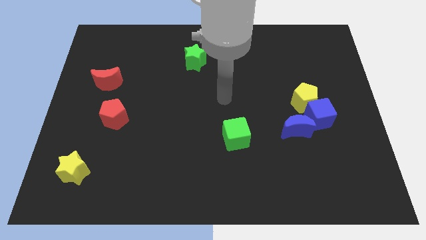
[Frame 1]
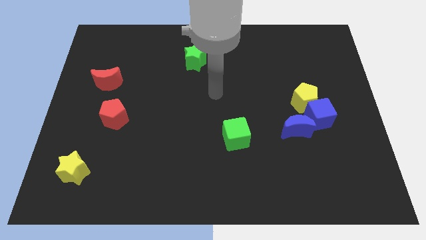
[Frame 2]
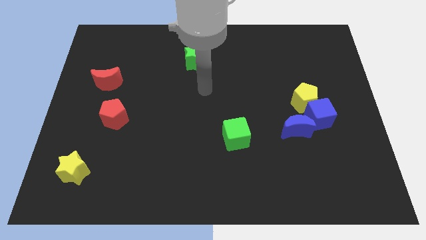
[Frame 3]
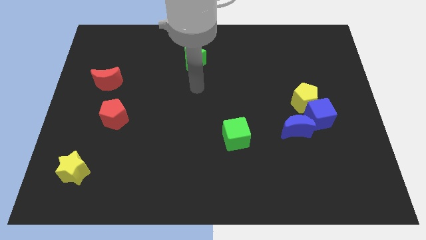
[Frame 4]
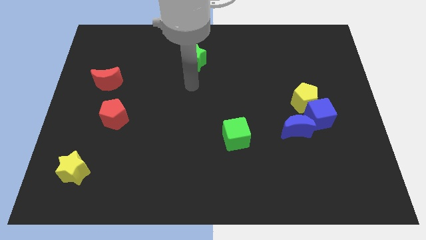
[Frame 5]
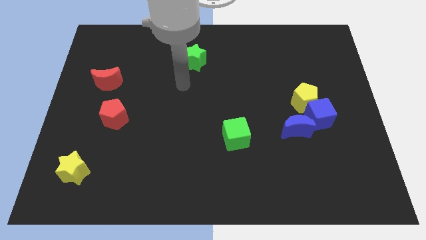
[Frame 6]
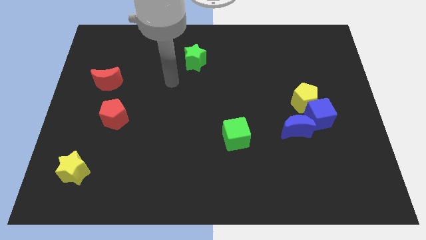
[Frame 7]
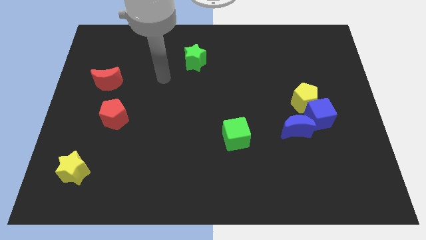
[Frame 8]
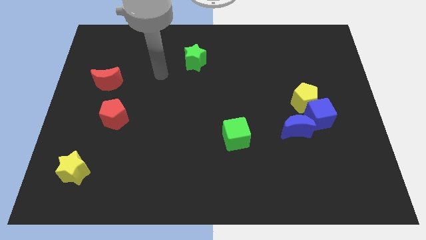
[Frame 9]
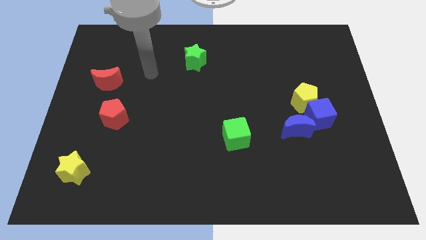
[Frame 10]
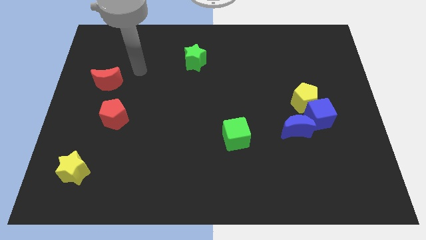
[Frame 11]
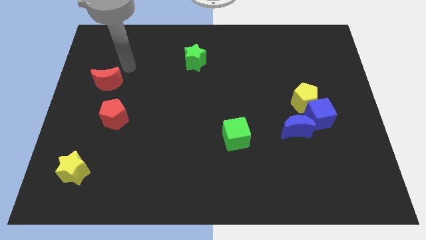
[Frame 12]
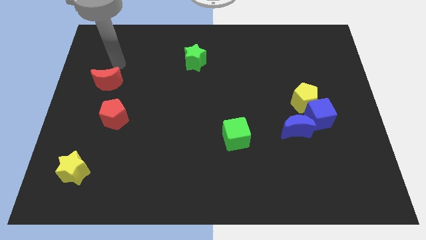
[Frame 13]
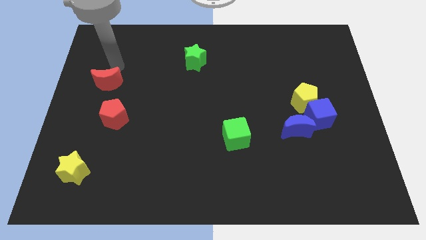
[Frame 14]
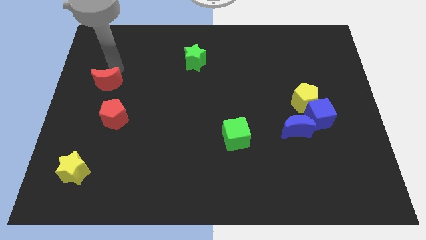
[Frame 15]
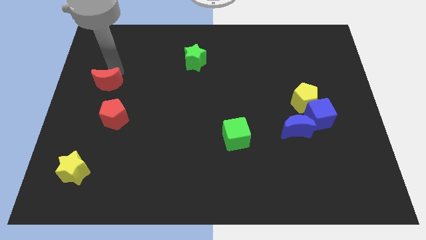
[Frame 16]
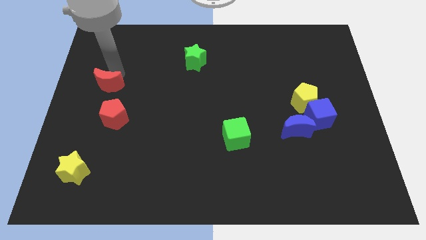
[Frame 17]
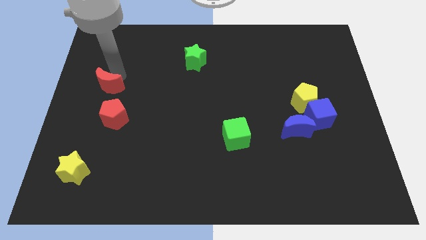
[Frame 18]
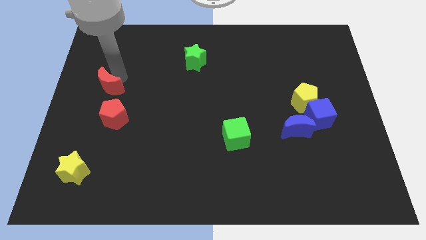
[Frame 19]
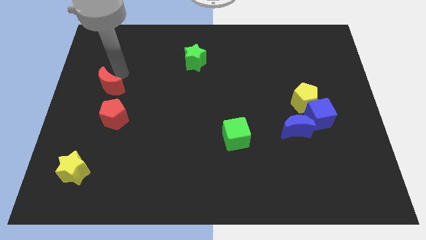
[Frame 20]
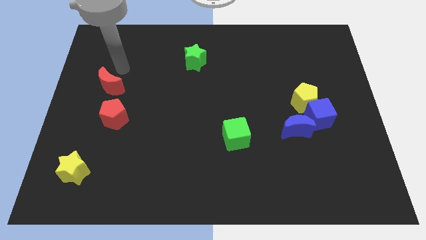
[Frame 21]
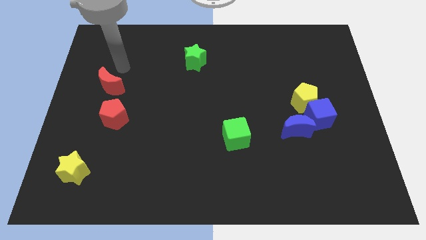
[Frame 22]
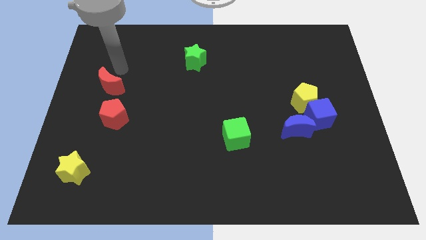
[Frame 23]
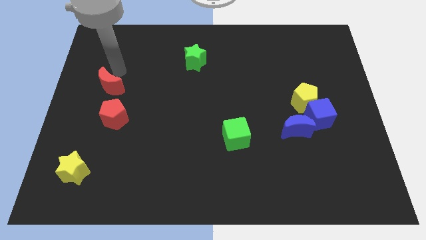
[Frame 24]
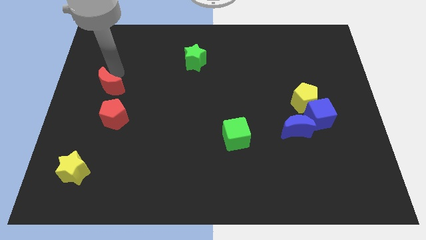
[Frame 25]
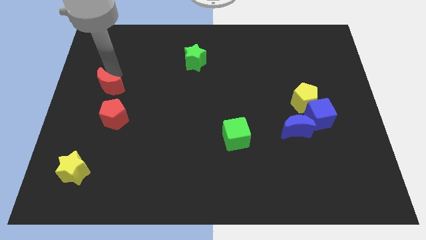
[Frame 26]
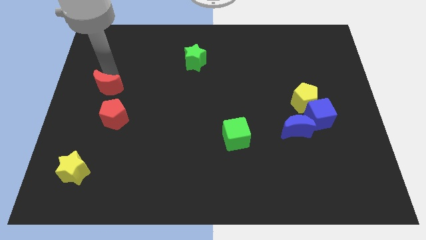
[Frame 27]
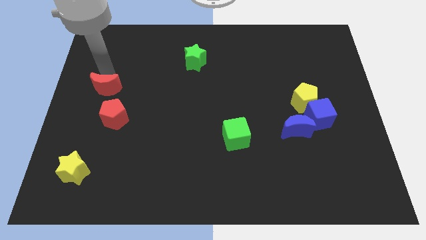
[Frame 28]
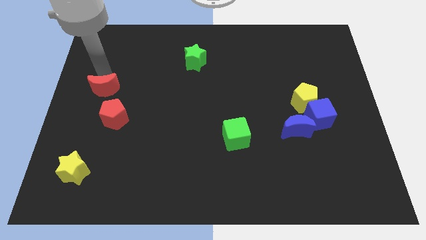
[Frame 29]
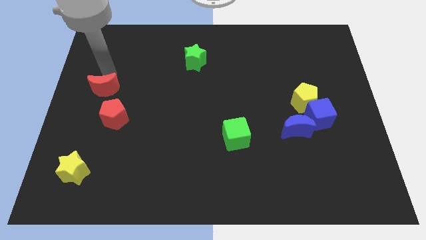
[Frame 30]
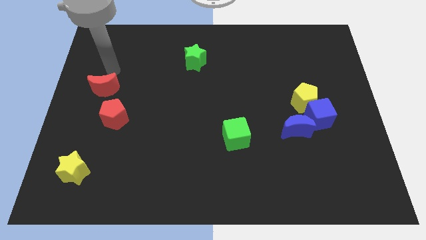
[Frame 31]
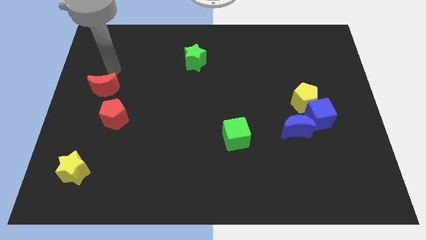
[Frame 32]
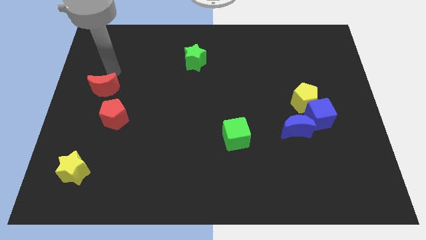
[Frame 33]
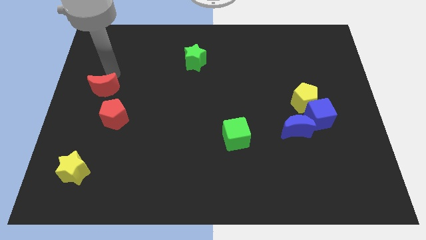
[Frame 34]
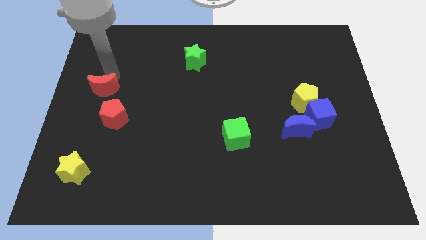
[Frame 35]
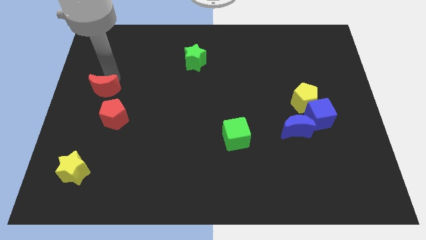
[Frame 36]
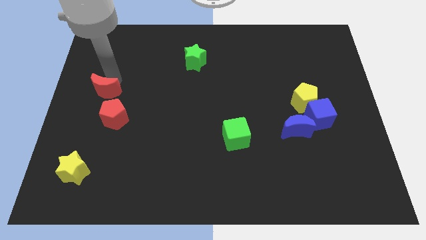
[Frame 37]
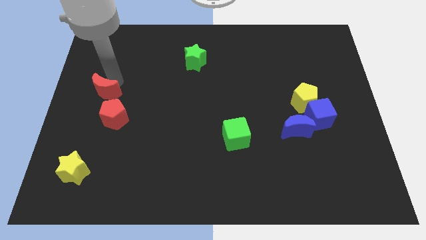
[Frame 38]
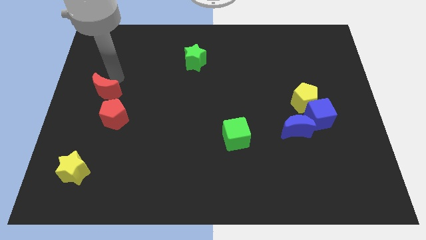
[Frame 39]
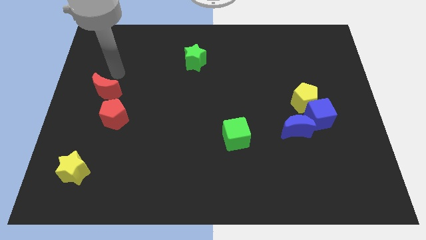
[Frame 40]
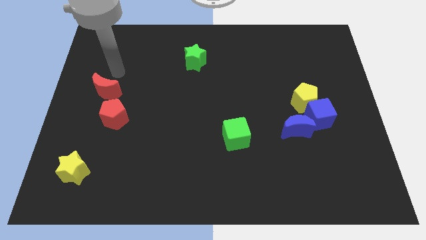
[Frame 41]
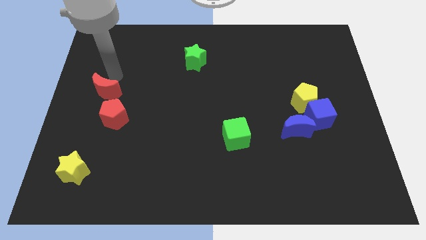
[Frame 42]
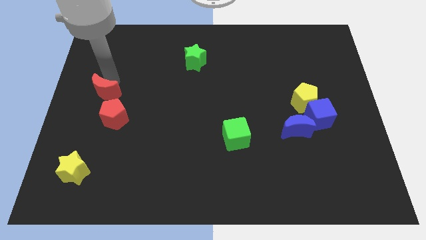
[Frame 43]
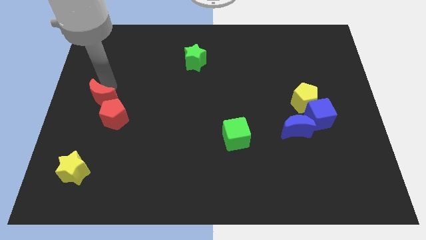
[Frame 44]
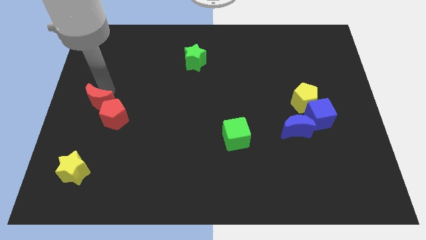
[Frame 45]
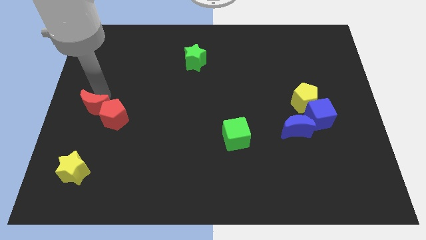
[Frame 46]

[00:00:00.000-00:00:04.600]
push the red moon slightly down

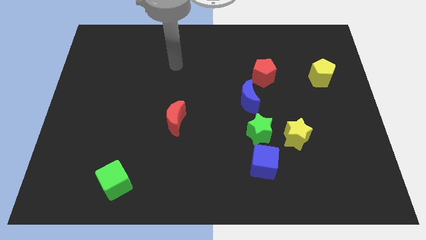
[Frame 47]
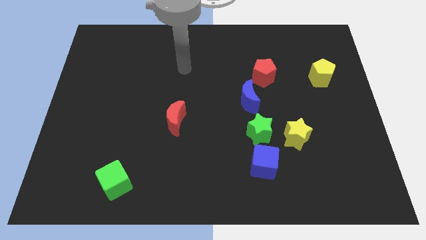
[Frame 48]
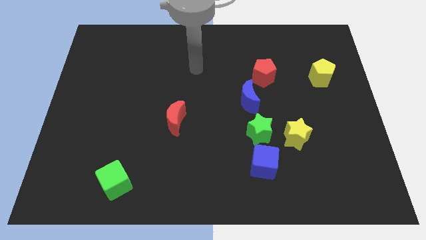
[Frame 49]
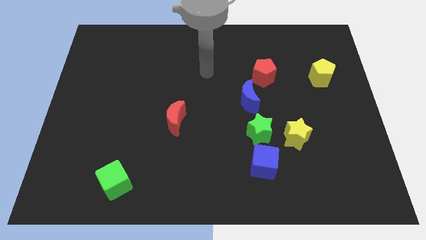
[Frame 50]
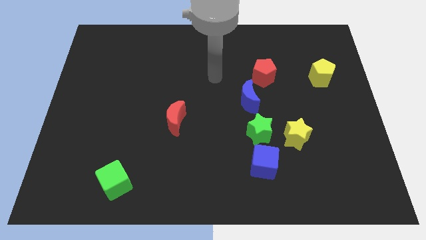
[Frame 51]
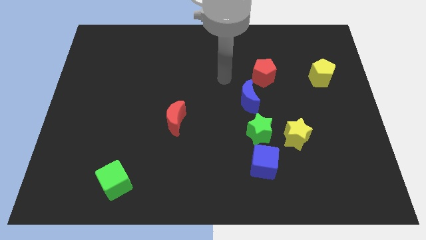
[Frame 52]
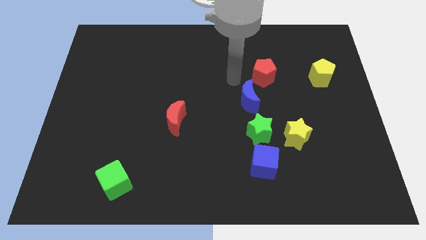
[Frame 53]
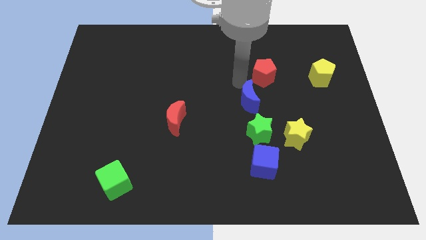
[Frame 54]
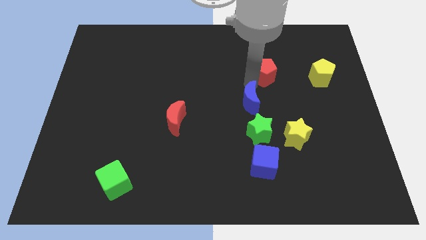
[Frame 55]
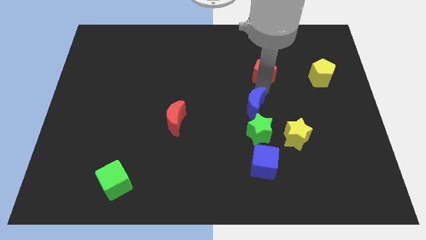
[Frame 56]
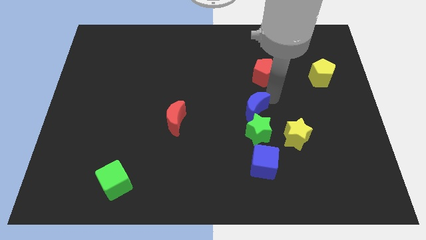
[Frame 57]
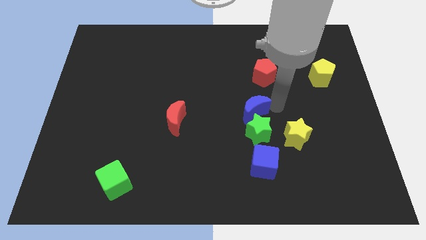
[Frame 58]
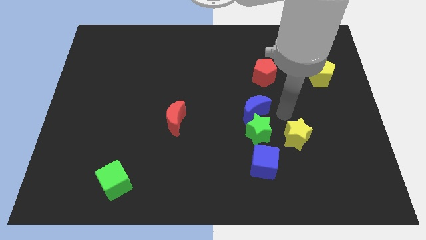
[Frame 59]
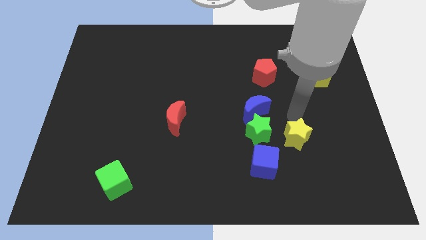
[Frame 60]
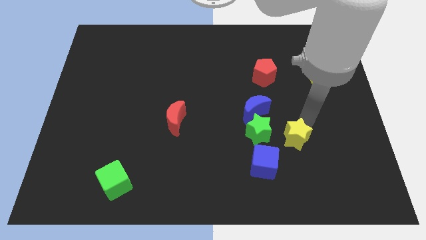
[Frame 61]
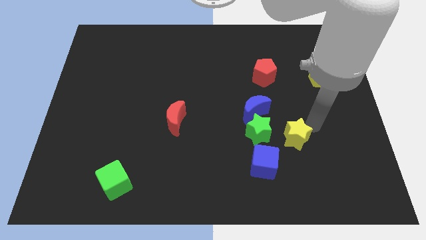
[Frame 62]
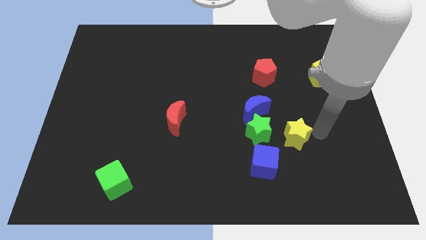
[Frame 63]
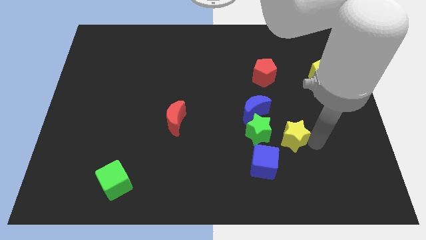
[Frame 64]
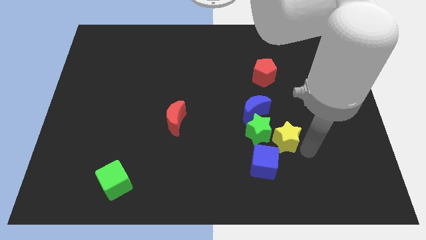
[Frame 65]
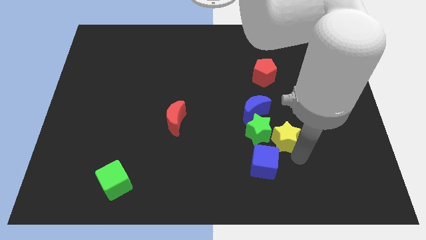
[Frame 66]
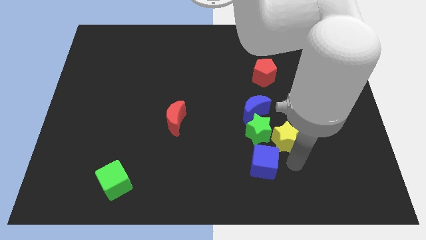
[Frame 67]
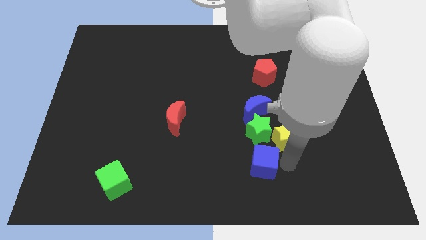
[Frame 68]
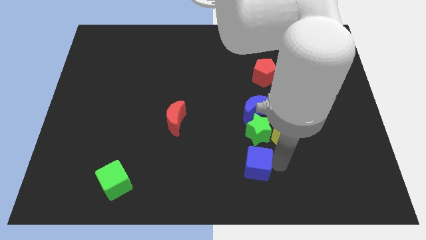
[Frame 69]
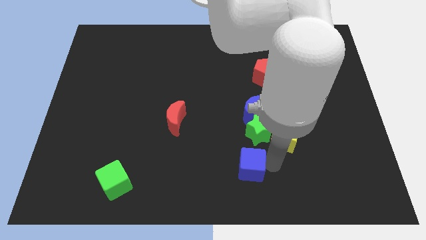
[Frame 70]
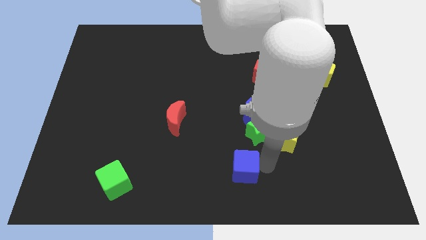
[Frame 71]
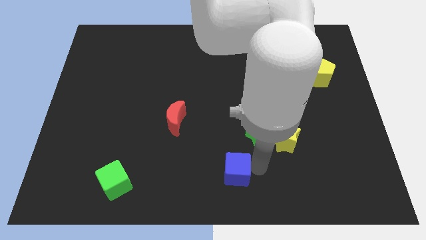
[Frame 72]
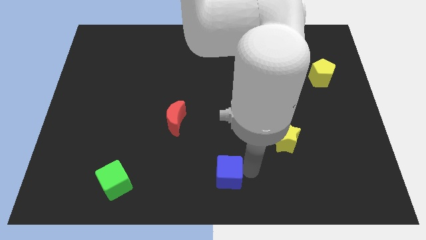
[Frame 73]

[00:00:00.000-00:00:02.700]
slightly push the blue cube left

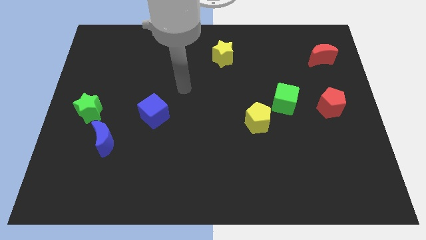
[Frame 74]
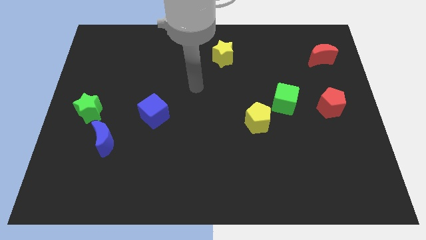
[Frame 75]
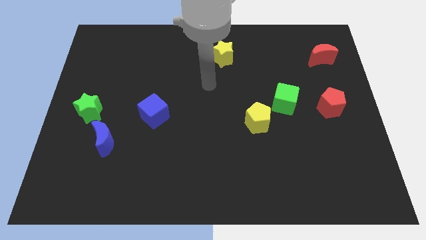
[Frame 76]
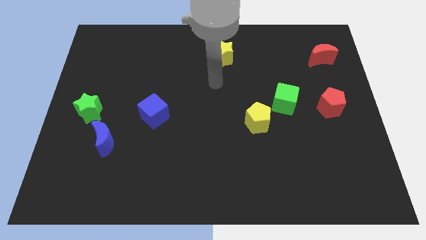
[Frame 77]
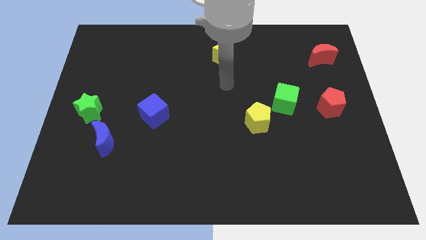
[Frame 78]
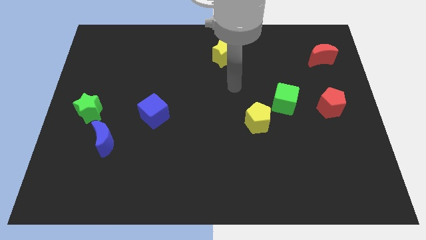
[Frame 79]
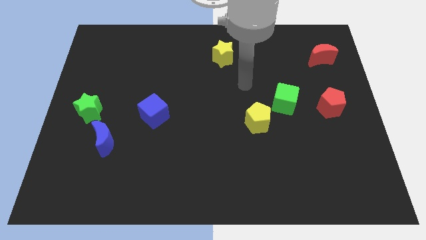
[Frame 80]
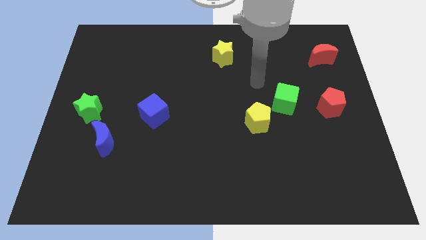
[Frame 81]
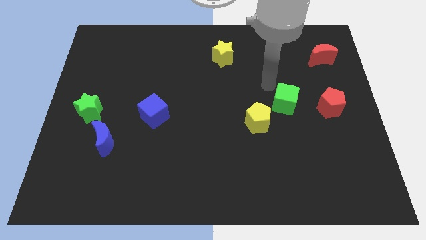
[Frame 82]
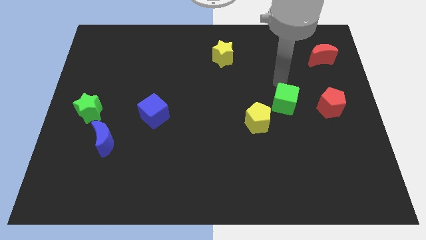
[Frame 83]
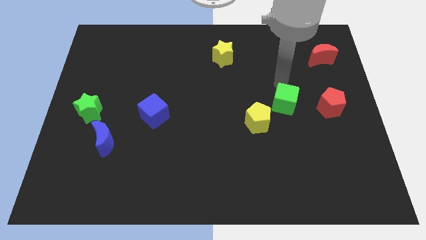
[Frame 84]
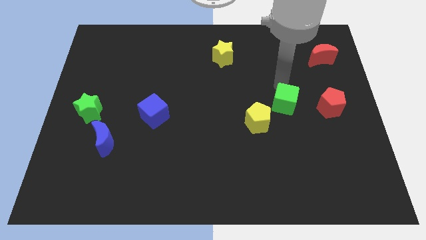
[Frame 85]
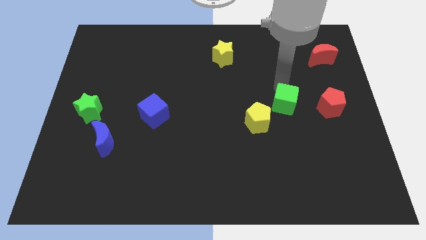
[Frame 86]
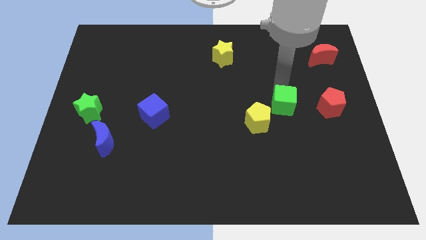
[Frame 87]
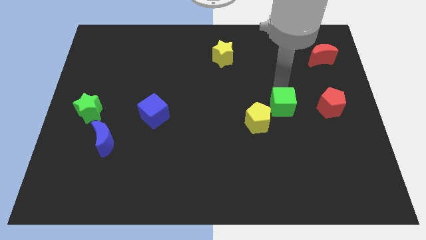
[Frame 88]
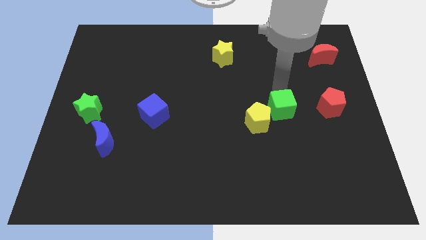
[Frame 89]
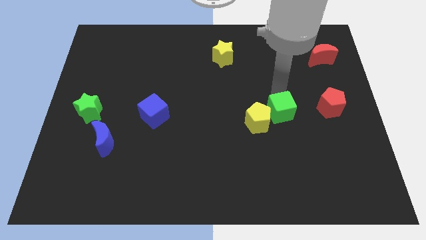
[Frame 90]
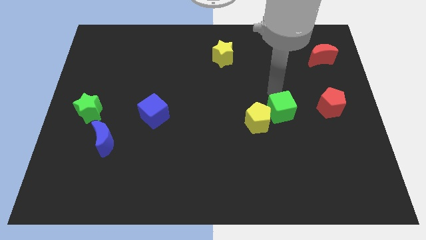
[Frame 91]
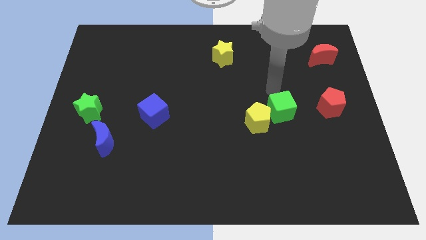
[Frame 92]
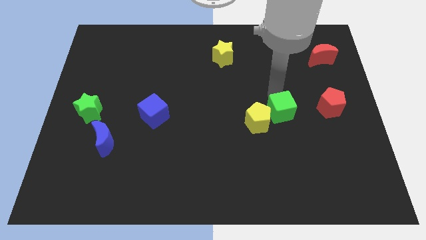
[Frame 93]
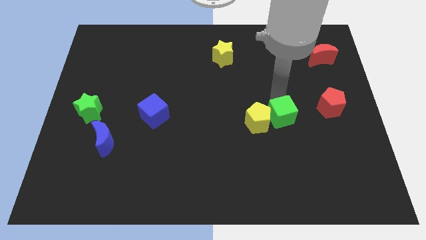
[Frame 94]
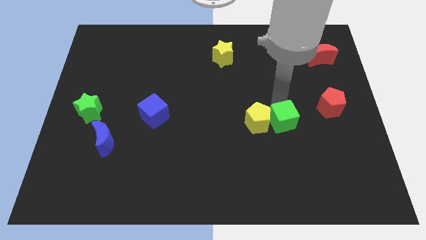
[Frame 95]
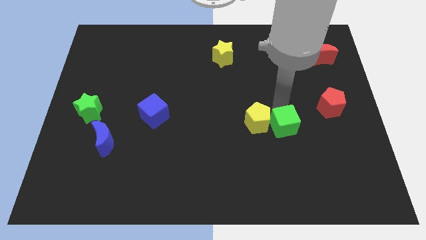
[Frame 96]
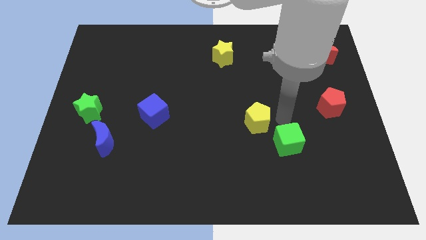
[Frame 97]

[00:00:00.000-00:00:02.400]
push the green cube downwards a bit
